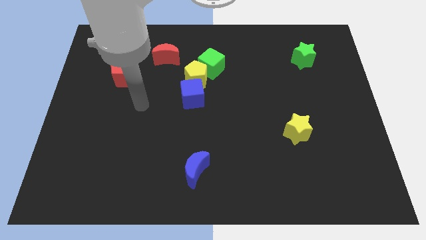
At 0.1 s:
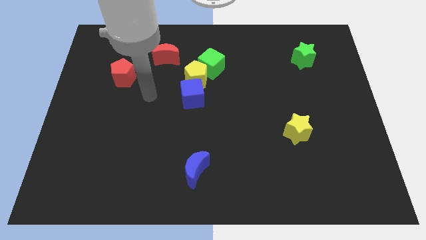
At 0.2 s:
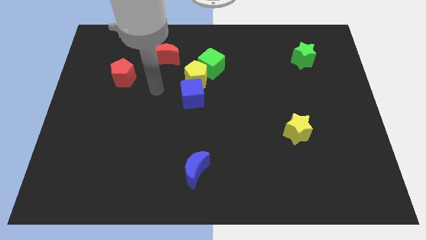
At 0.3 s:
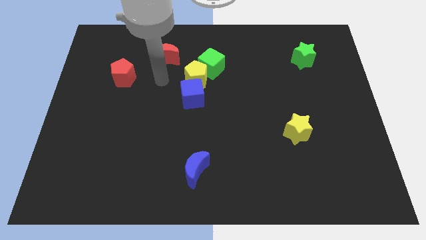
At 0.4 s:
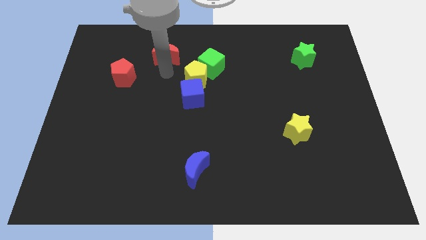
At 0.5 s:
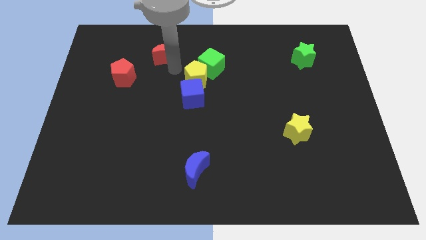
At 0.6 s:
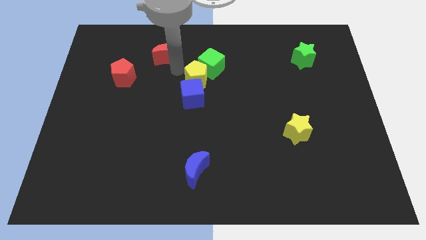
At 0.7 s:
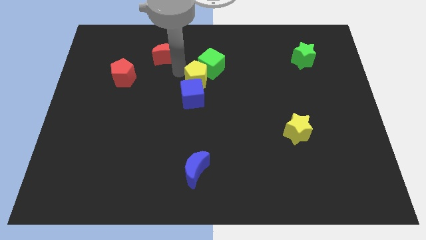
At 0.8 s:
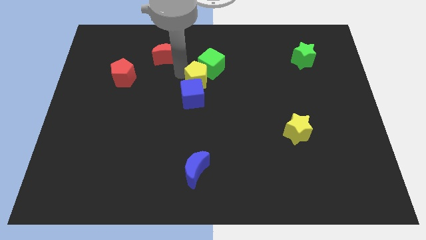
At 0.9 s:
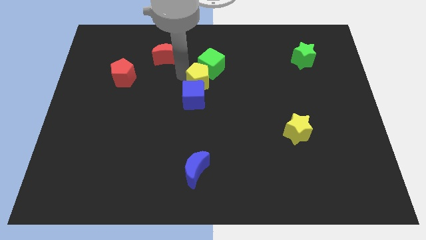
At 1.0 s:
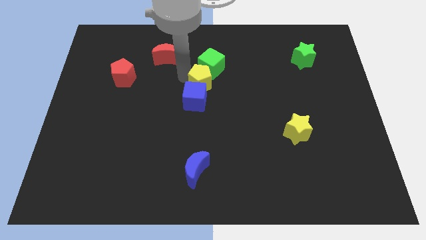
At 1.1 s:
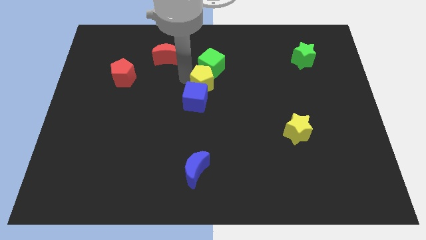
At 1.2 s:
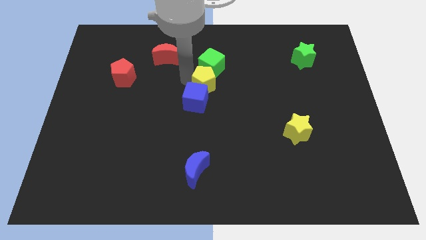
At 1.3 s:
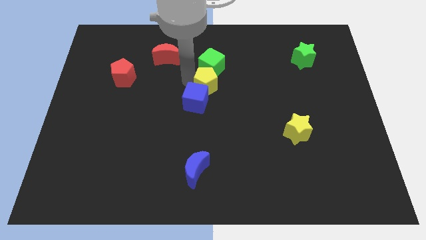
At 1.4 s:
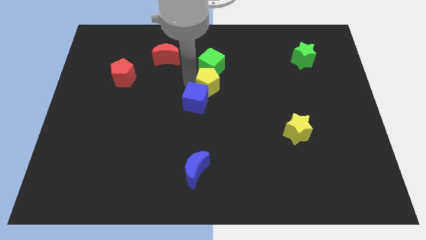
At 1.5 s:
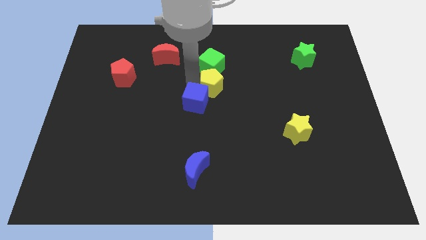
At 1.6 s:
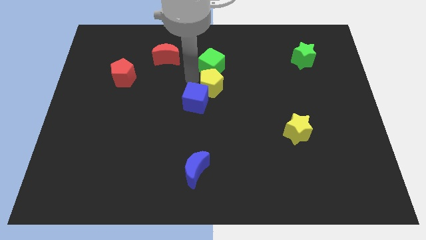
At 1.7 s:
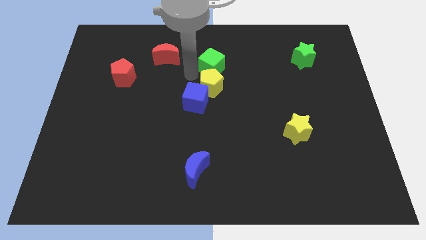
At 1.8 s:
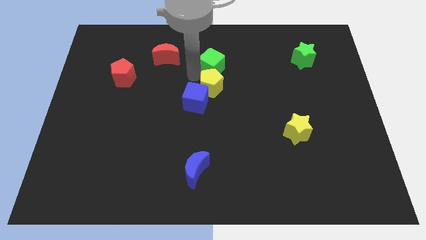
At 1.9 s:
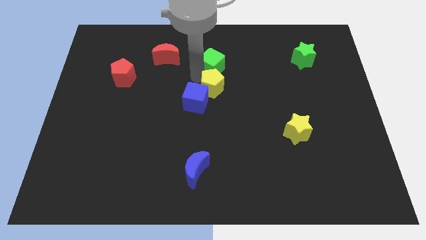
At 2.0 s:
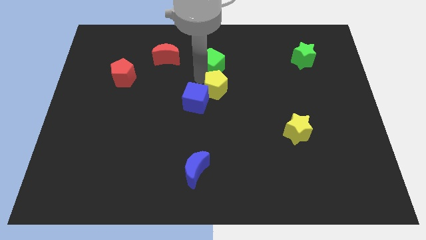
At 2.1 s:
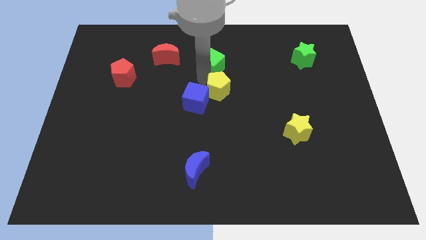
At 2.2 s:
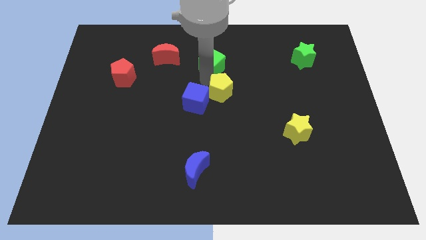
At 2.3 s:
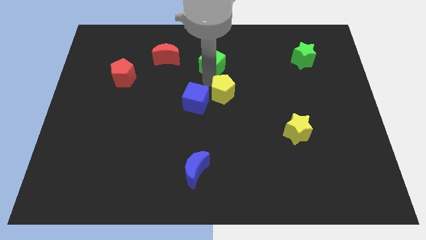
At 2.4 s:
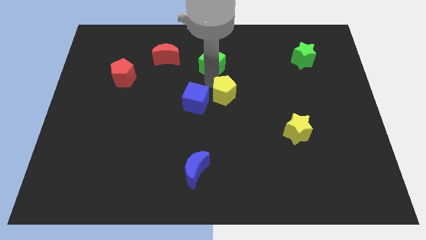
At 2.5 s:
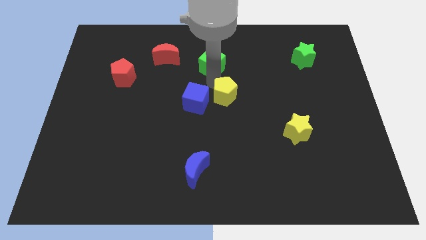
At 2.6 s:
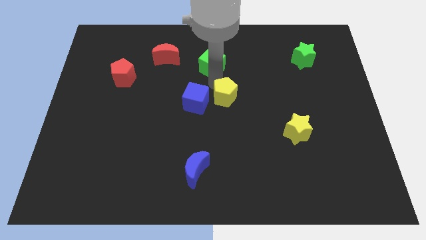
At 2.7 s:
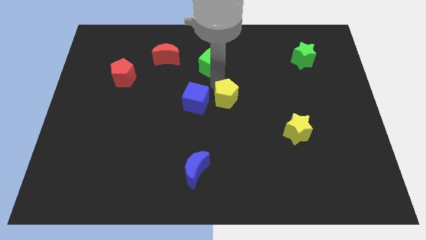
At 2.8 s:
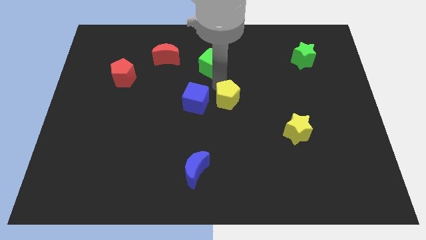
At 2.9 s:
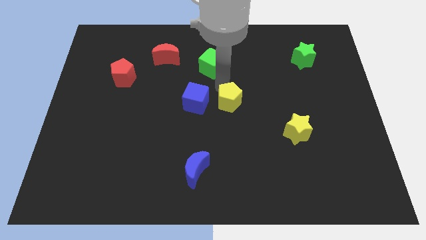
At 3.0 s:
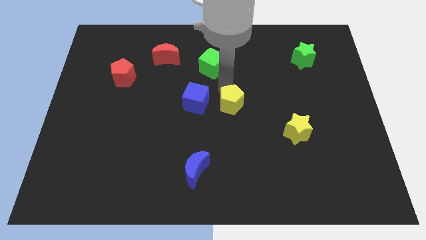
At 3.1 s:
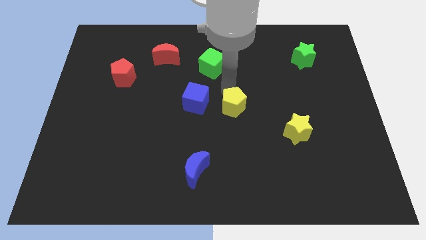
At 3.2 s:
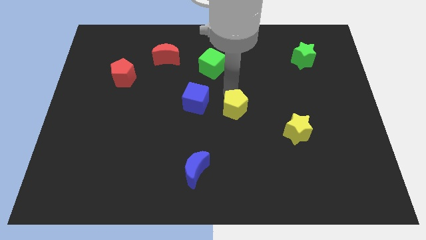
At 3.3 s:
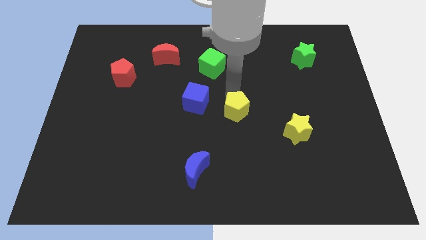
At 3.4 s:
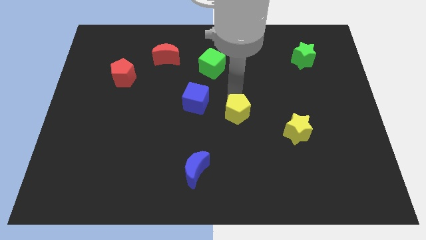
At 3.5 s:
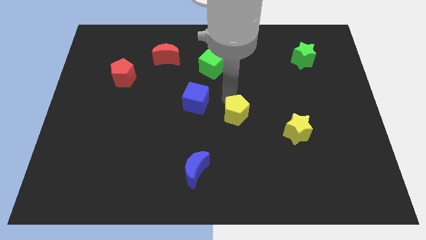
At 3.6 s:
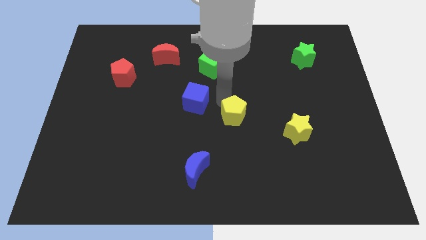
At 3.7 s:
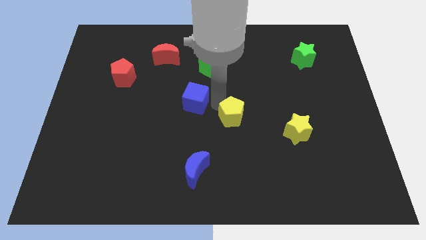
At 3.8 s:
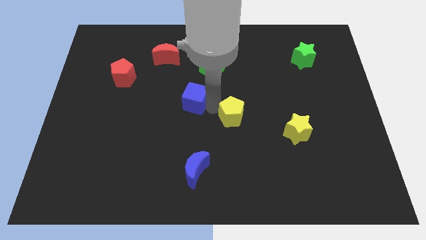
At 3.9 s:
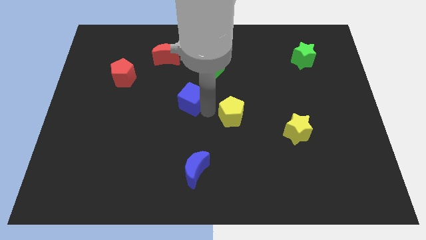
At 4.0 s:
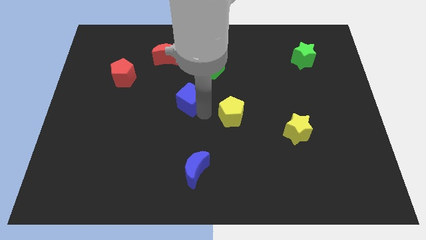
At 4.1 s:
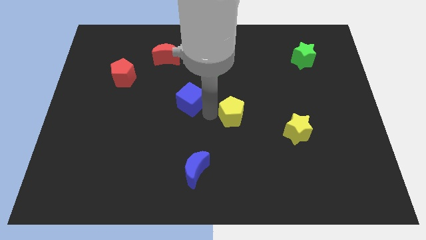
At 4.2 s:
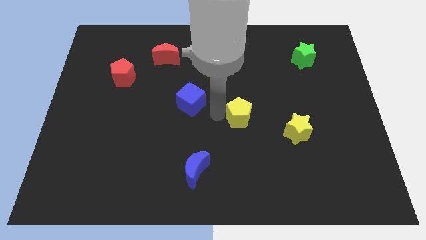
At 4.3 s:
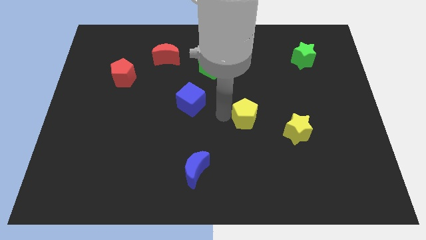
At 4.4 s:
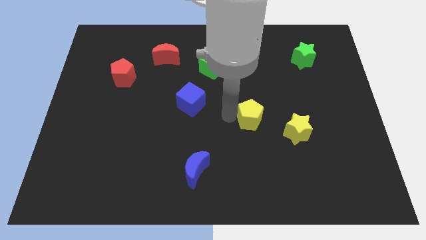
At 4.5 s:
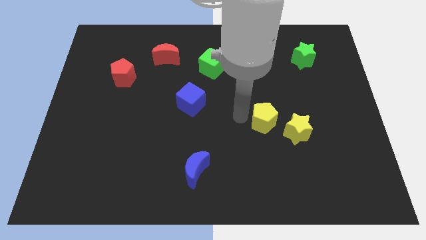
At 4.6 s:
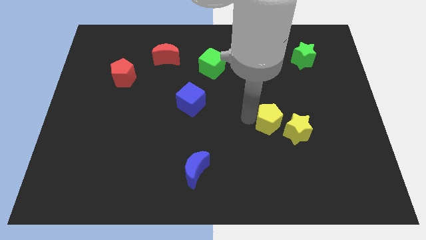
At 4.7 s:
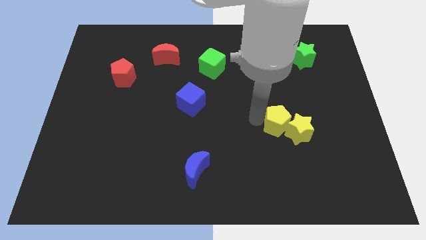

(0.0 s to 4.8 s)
put the yellow pentagon towards the yellow star

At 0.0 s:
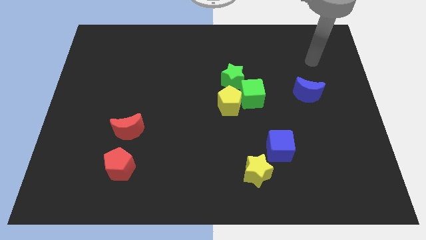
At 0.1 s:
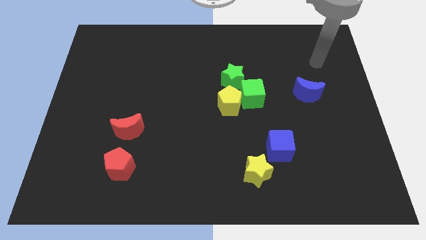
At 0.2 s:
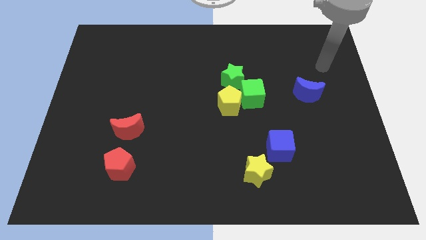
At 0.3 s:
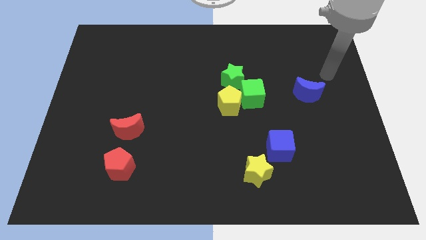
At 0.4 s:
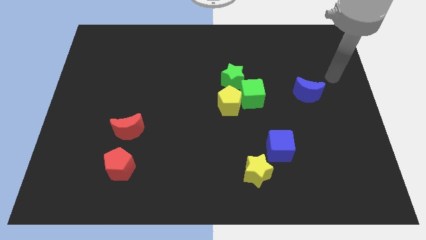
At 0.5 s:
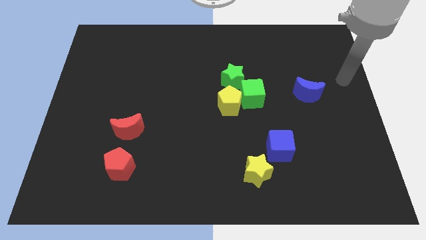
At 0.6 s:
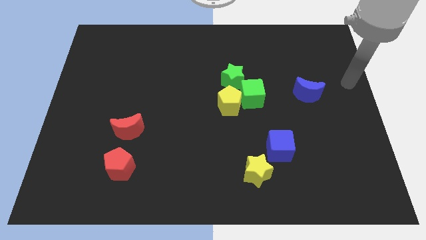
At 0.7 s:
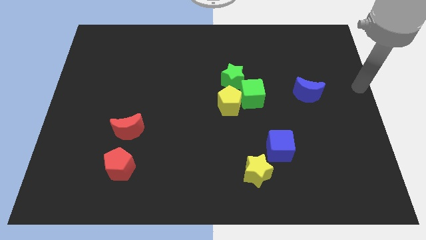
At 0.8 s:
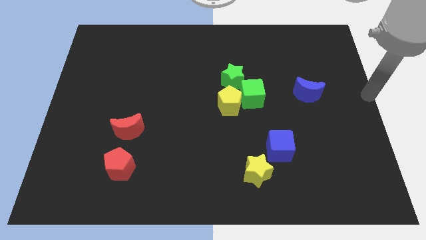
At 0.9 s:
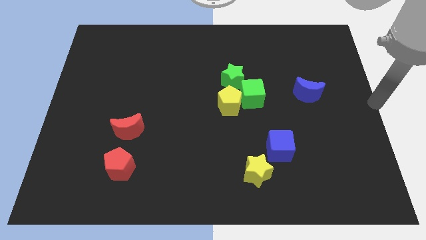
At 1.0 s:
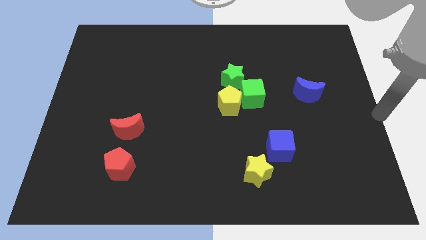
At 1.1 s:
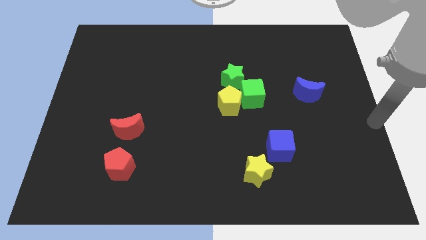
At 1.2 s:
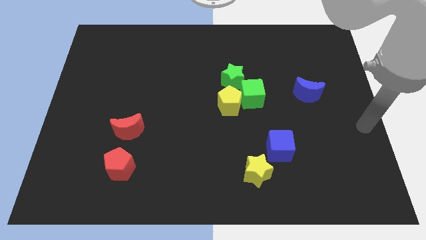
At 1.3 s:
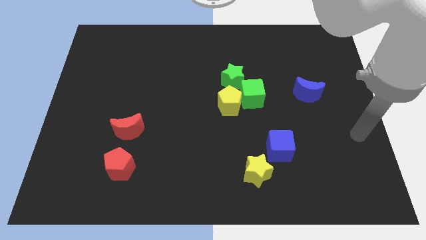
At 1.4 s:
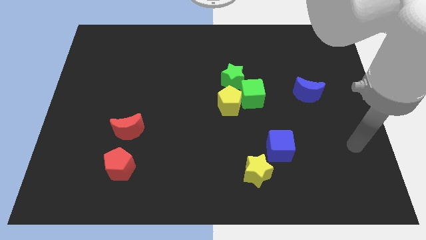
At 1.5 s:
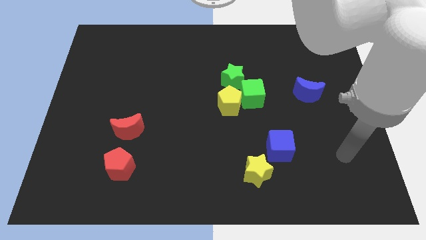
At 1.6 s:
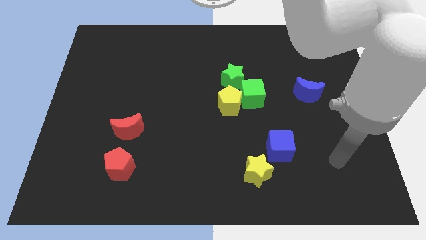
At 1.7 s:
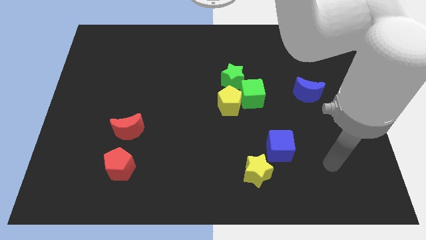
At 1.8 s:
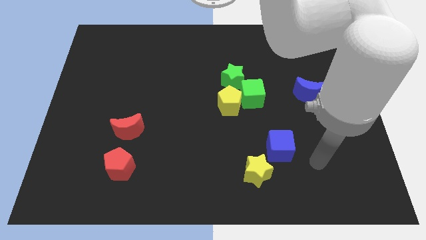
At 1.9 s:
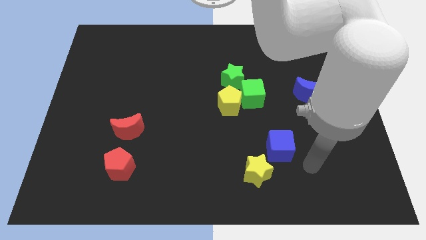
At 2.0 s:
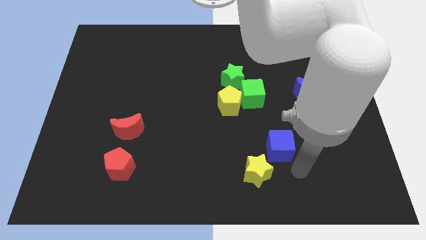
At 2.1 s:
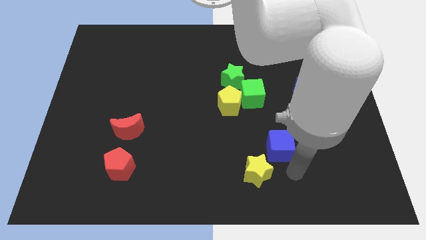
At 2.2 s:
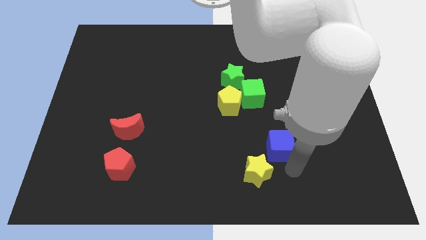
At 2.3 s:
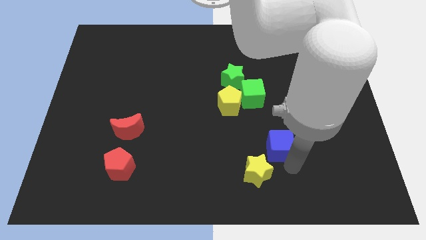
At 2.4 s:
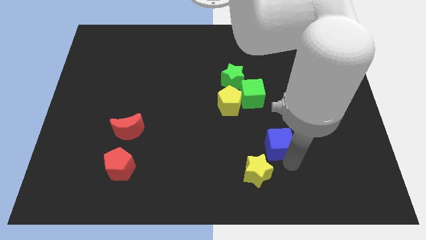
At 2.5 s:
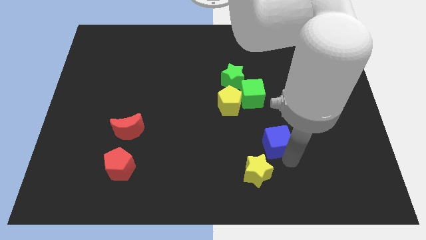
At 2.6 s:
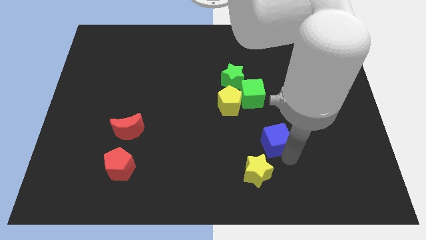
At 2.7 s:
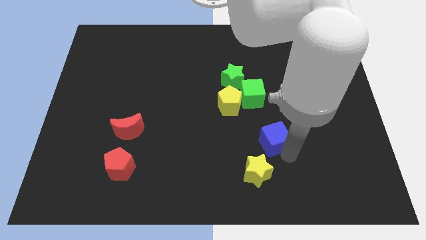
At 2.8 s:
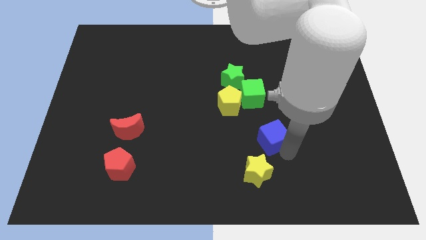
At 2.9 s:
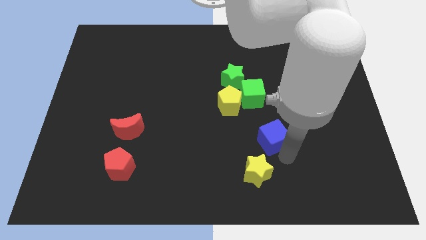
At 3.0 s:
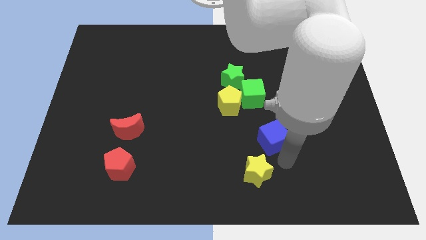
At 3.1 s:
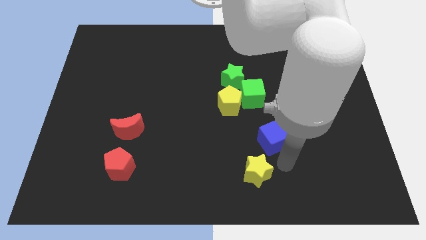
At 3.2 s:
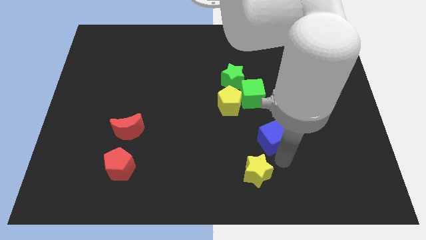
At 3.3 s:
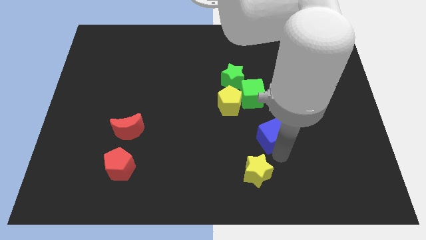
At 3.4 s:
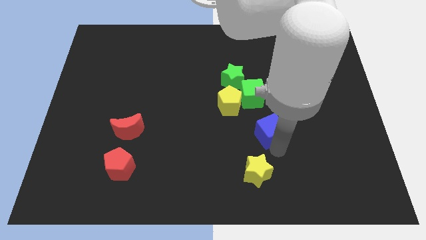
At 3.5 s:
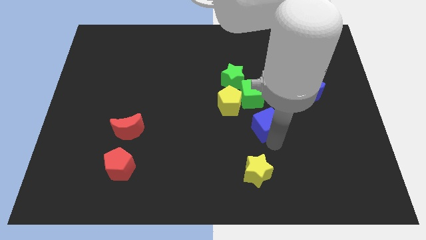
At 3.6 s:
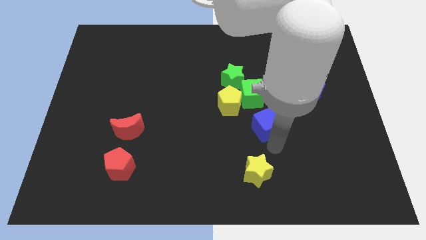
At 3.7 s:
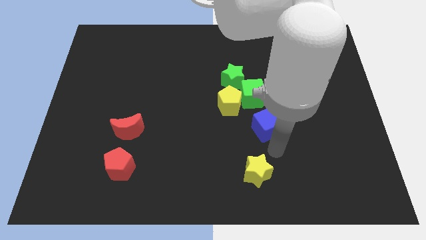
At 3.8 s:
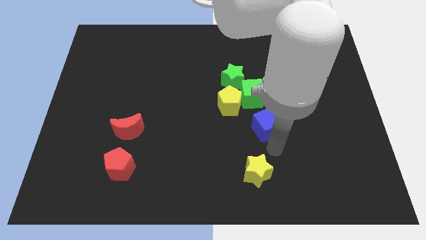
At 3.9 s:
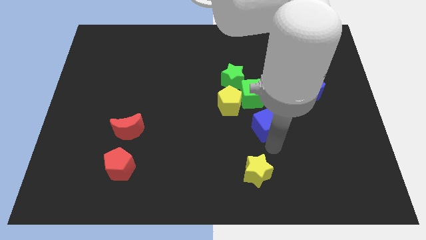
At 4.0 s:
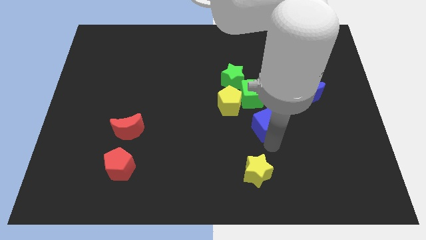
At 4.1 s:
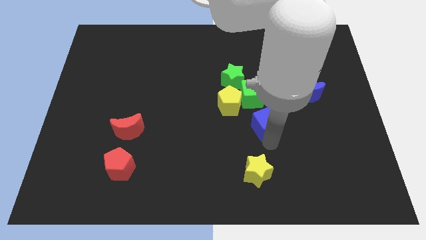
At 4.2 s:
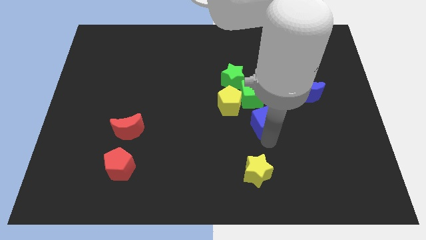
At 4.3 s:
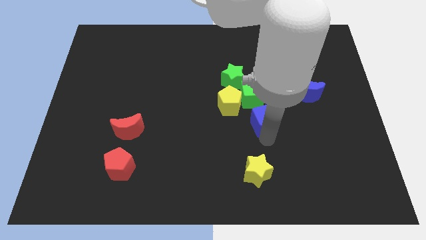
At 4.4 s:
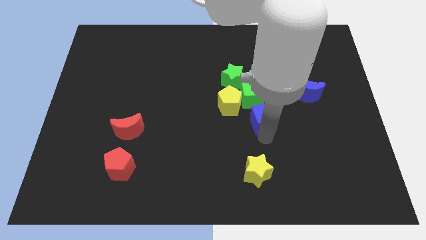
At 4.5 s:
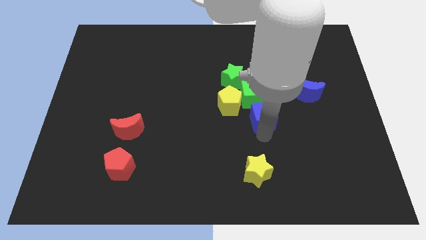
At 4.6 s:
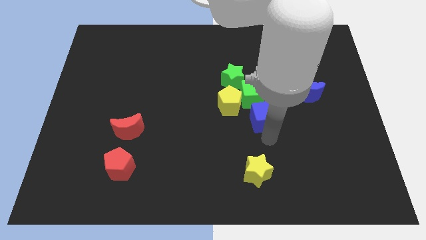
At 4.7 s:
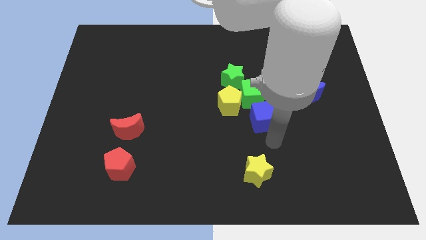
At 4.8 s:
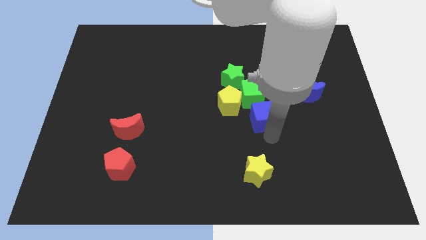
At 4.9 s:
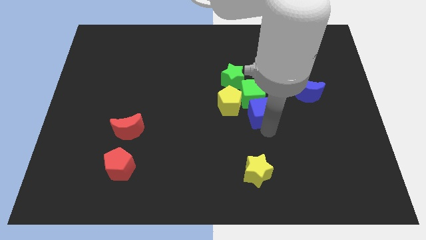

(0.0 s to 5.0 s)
slide the blue cube close to the green cube
